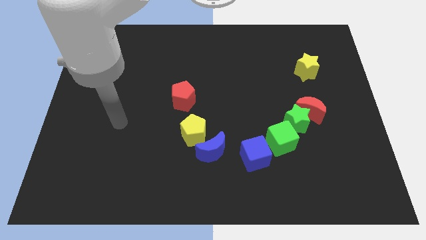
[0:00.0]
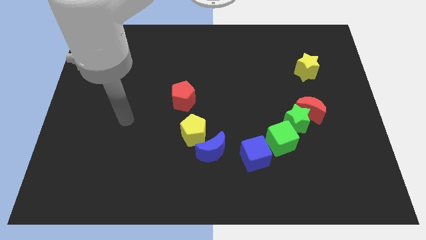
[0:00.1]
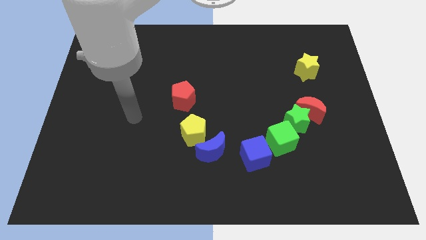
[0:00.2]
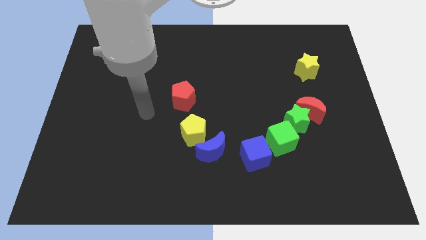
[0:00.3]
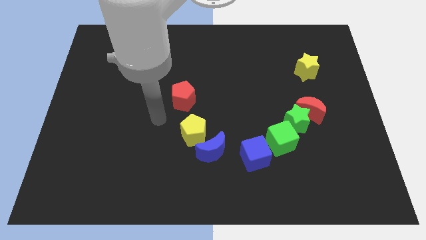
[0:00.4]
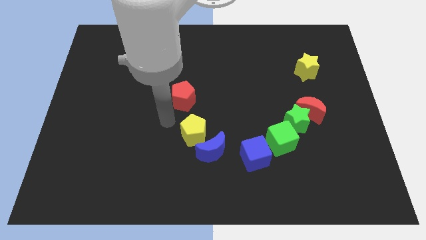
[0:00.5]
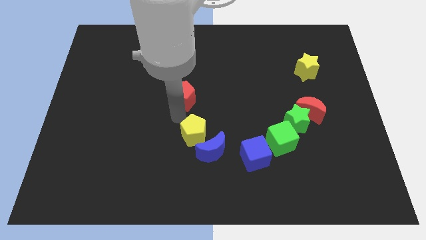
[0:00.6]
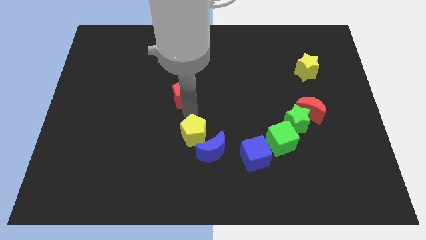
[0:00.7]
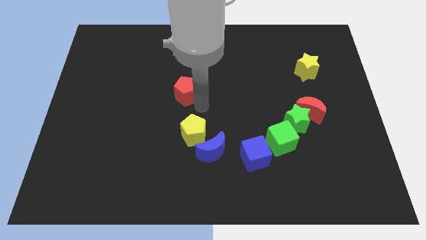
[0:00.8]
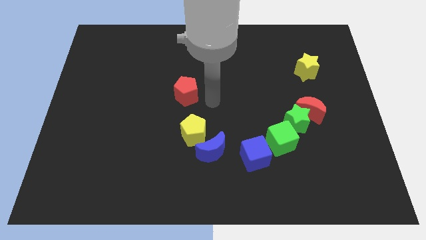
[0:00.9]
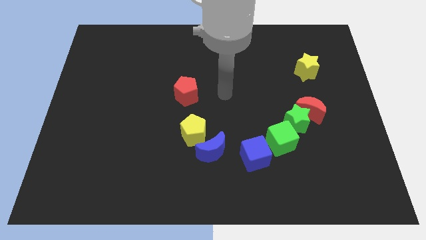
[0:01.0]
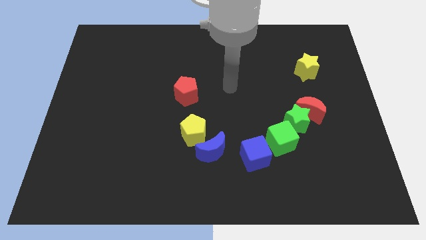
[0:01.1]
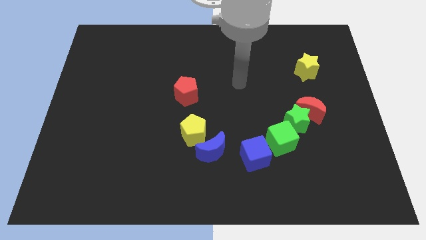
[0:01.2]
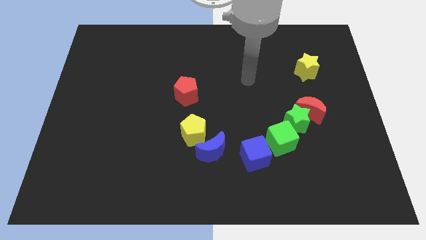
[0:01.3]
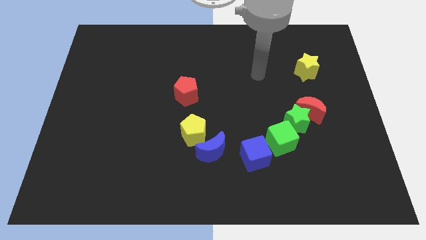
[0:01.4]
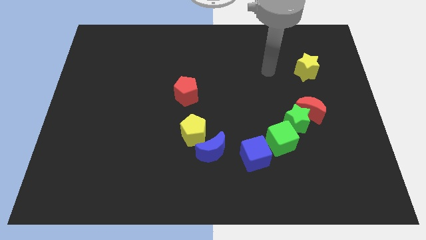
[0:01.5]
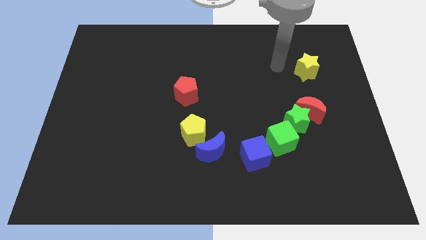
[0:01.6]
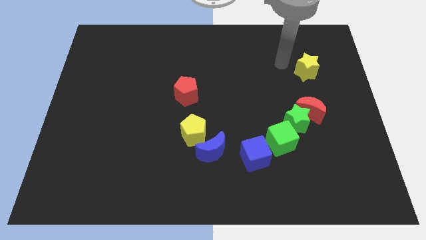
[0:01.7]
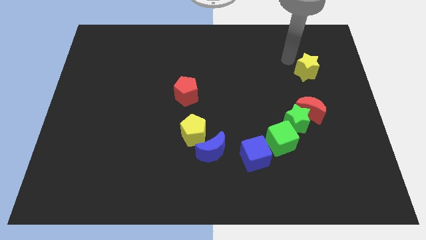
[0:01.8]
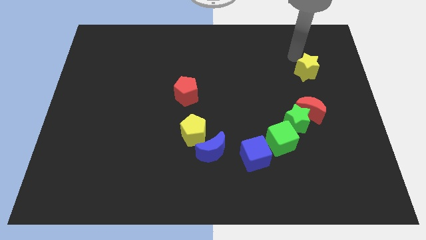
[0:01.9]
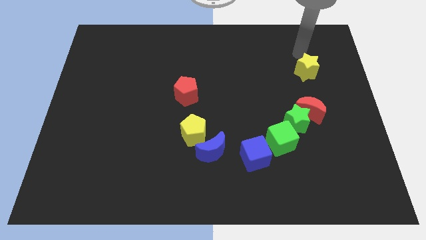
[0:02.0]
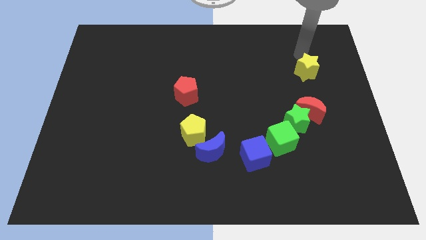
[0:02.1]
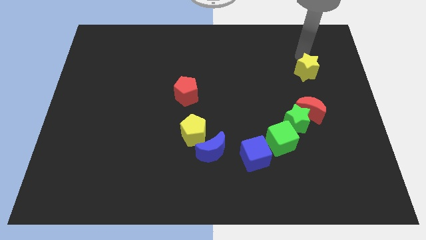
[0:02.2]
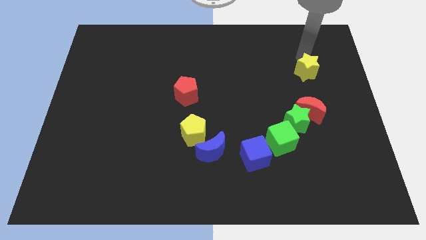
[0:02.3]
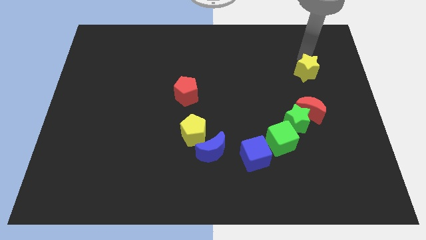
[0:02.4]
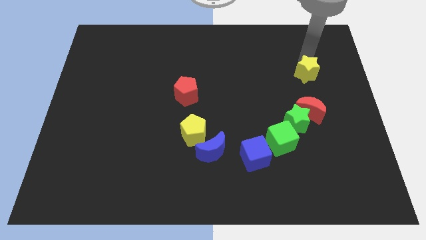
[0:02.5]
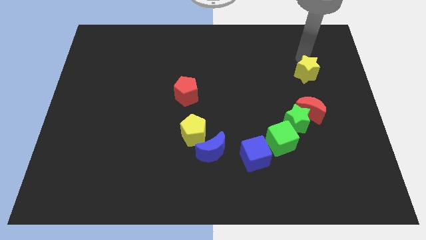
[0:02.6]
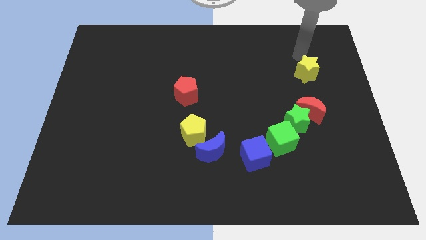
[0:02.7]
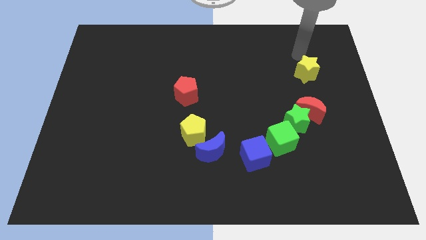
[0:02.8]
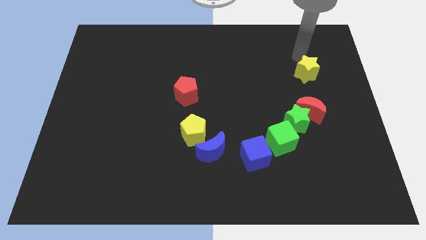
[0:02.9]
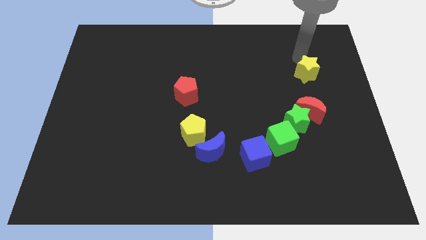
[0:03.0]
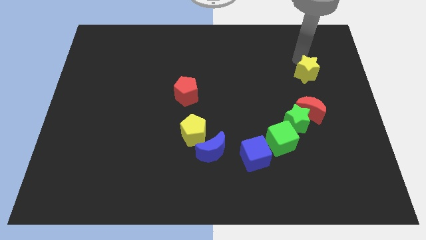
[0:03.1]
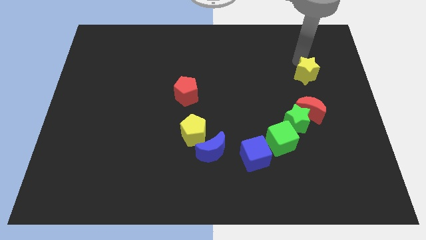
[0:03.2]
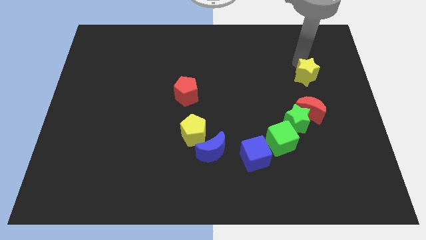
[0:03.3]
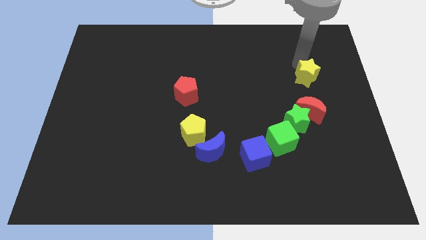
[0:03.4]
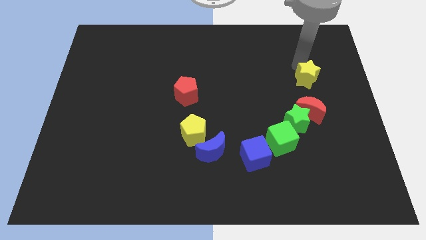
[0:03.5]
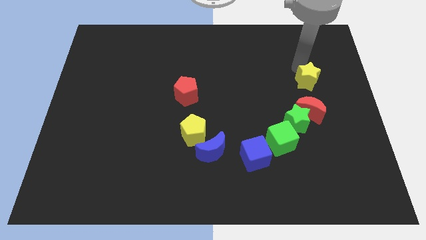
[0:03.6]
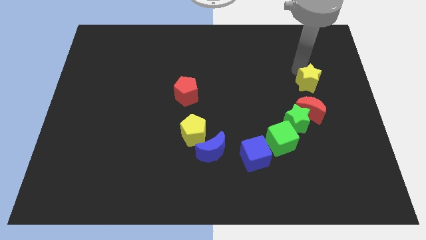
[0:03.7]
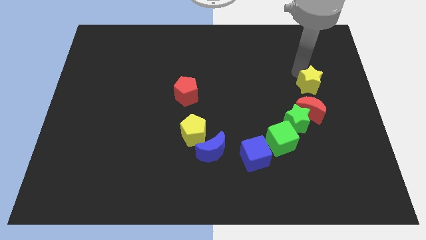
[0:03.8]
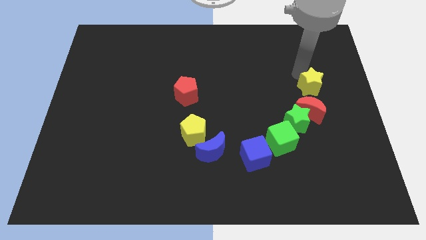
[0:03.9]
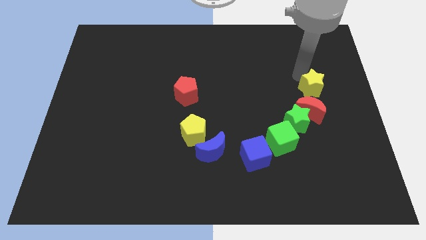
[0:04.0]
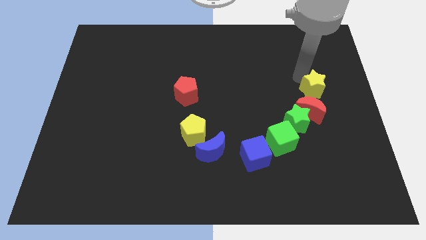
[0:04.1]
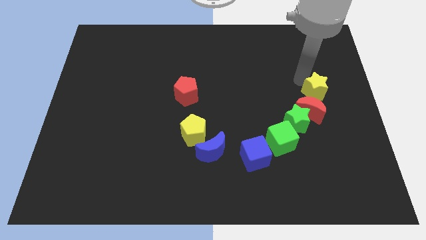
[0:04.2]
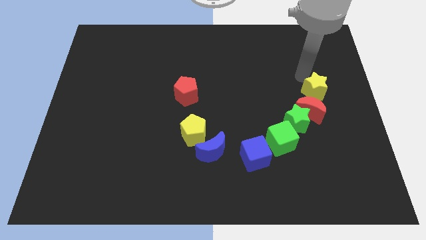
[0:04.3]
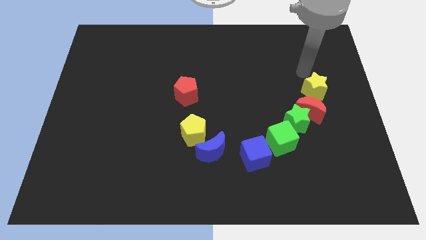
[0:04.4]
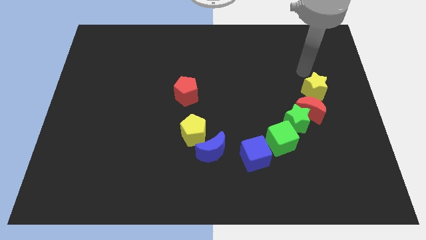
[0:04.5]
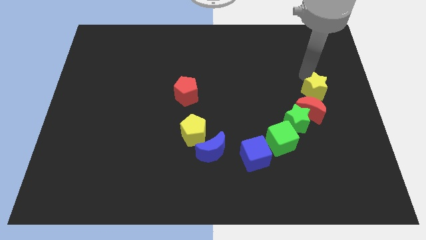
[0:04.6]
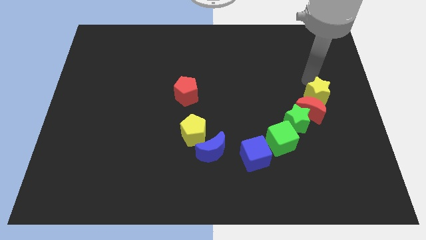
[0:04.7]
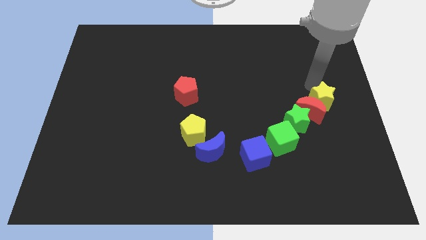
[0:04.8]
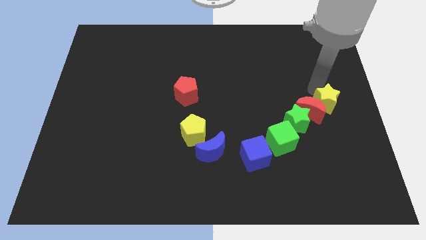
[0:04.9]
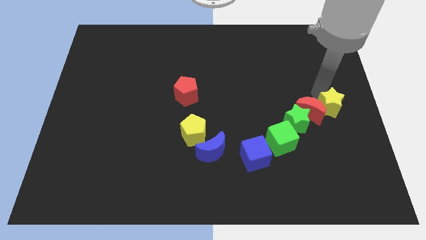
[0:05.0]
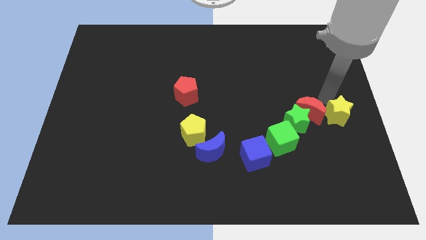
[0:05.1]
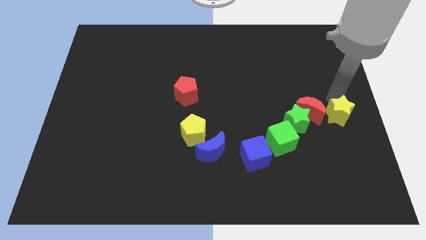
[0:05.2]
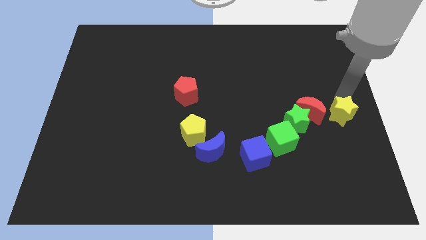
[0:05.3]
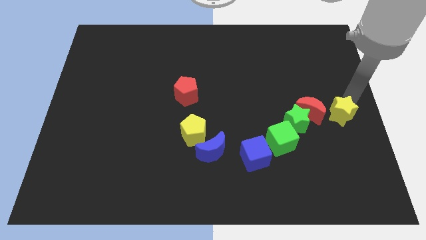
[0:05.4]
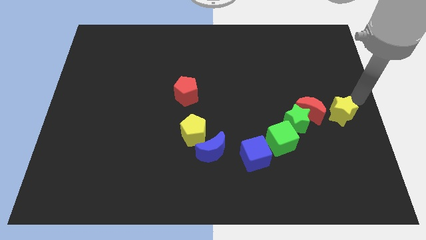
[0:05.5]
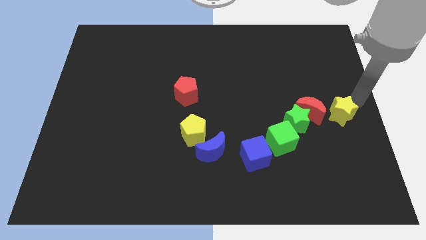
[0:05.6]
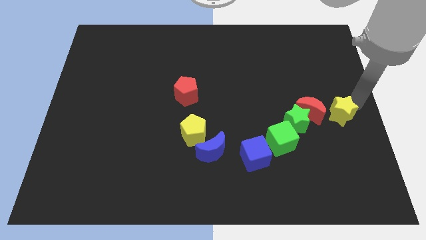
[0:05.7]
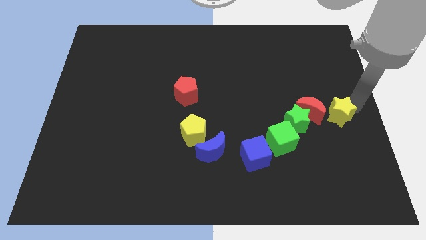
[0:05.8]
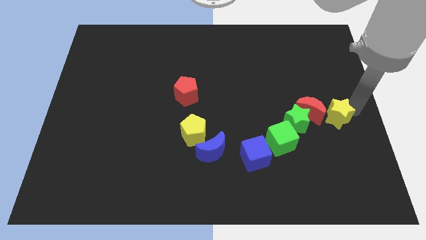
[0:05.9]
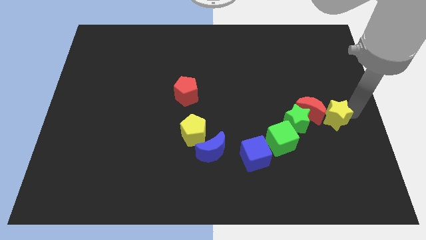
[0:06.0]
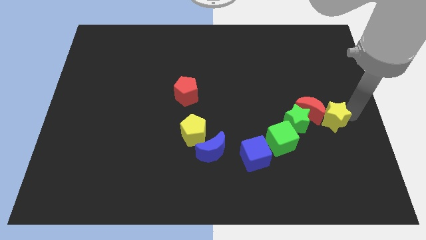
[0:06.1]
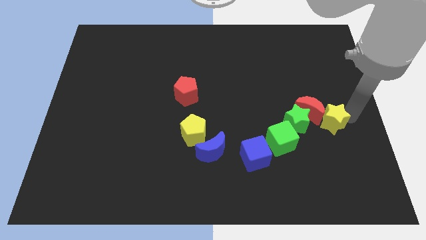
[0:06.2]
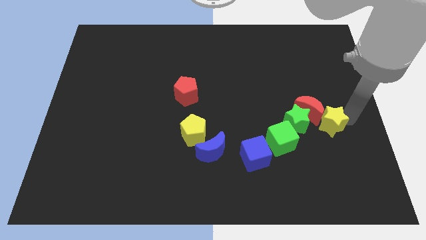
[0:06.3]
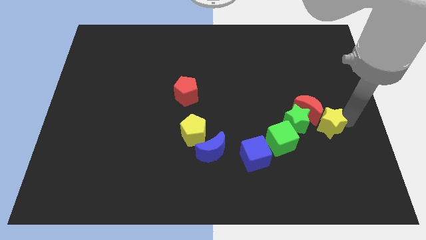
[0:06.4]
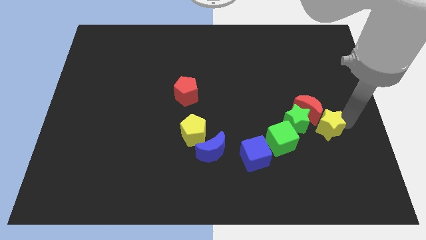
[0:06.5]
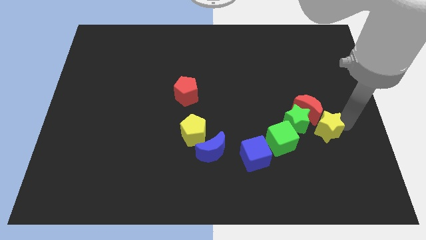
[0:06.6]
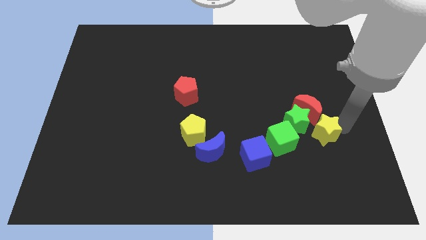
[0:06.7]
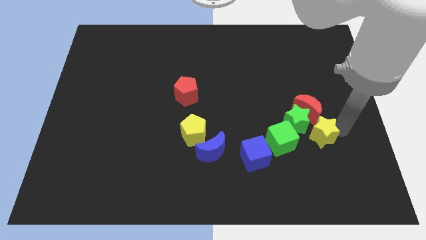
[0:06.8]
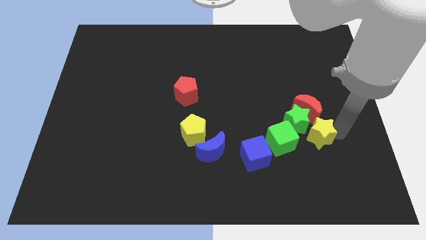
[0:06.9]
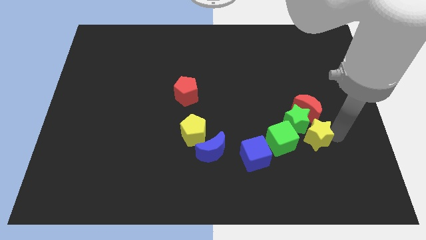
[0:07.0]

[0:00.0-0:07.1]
move the yellow star below the green star
